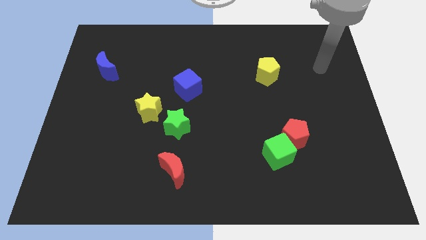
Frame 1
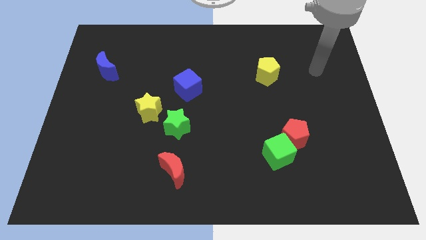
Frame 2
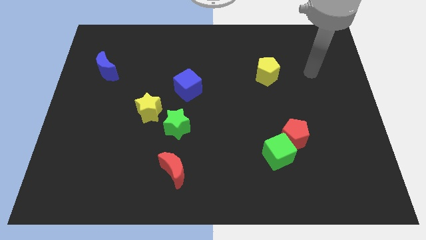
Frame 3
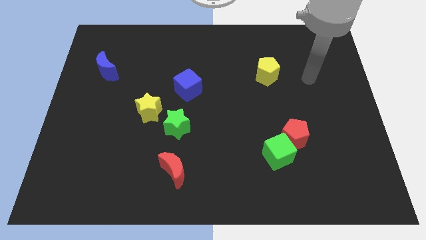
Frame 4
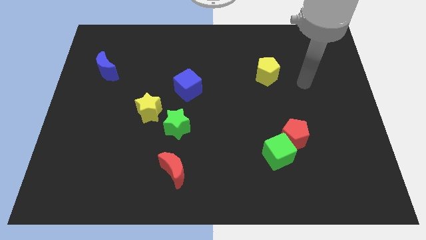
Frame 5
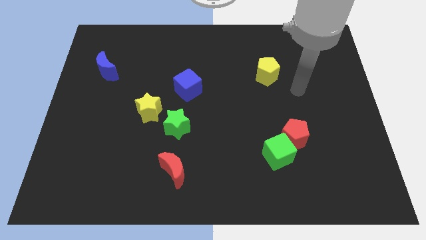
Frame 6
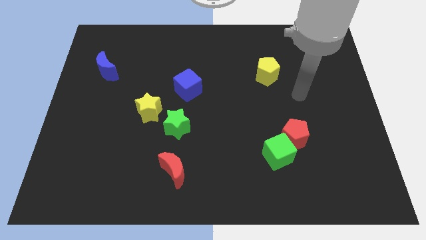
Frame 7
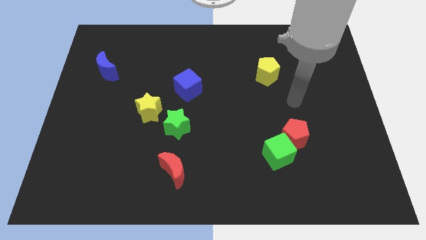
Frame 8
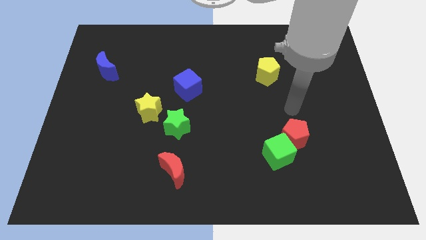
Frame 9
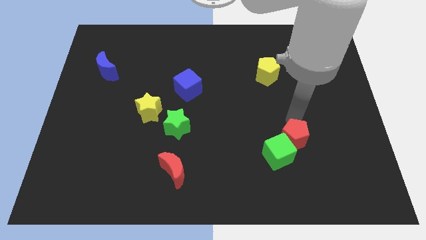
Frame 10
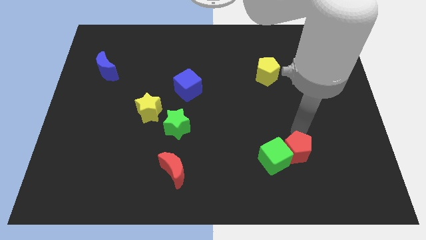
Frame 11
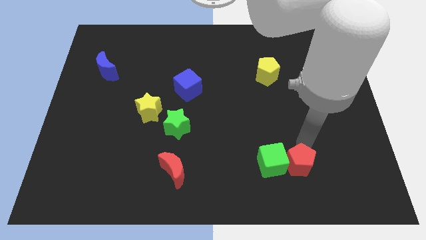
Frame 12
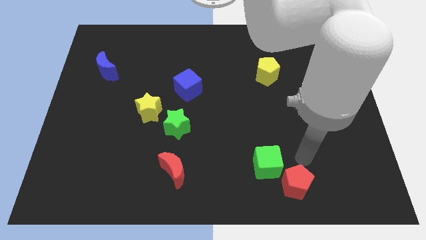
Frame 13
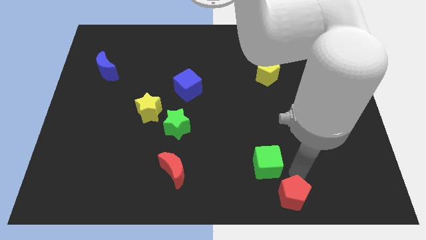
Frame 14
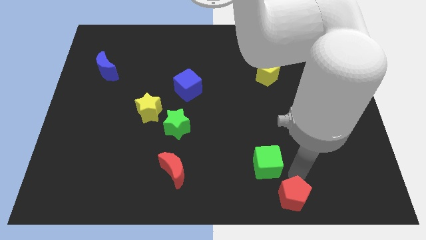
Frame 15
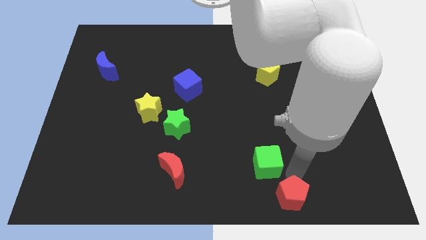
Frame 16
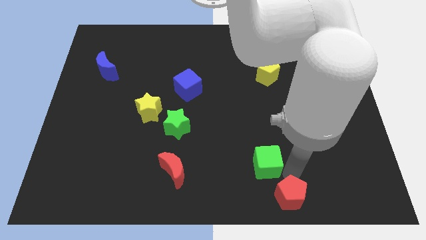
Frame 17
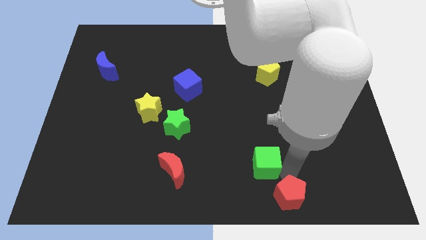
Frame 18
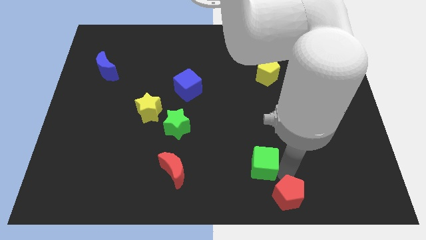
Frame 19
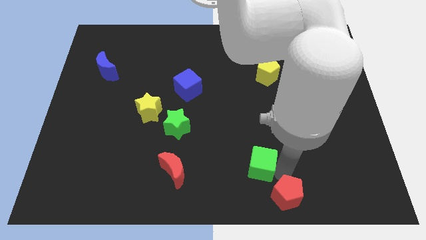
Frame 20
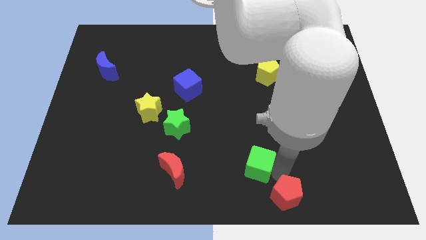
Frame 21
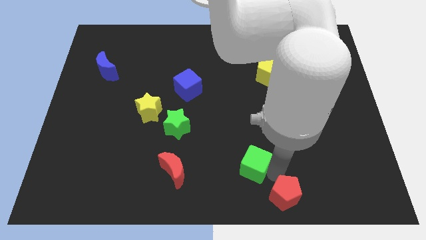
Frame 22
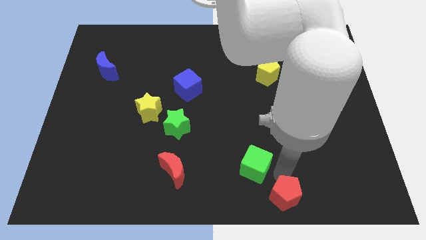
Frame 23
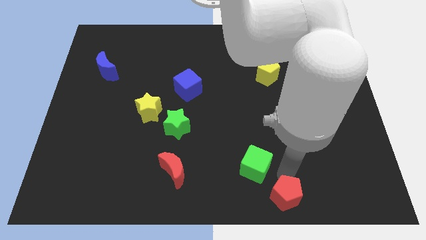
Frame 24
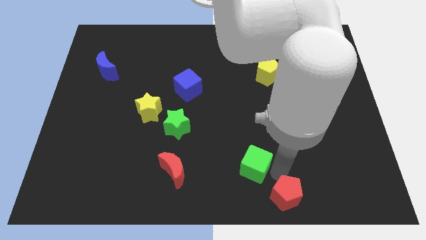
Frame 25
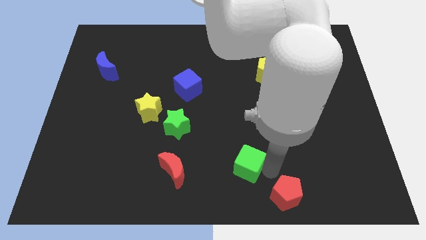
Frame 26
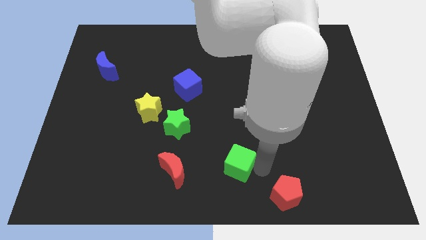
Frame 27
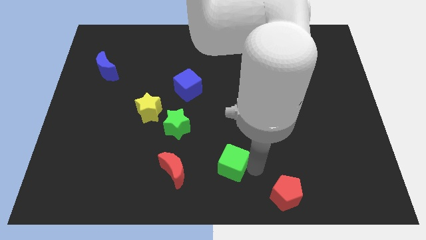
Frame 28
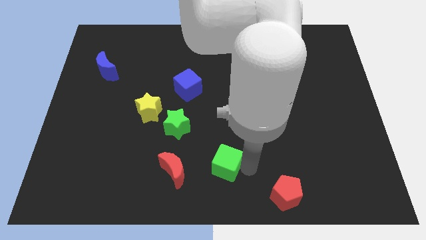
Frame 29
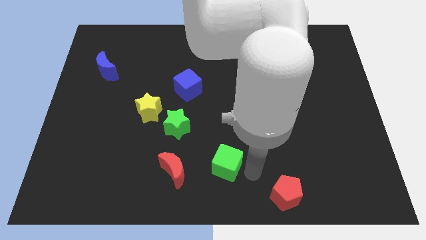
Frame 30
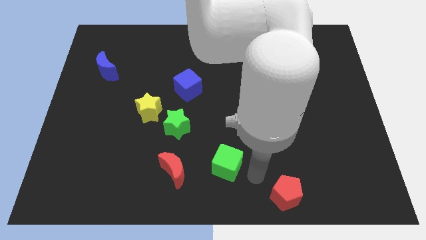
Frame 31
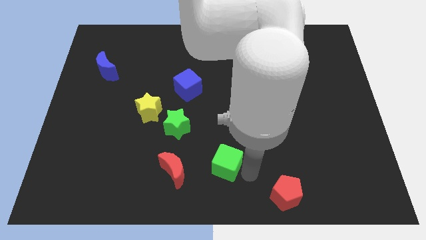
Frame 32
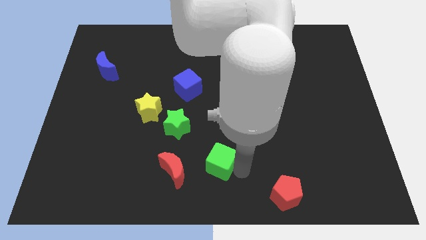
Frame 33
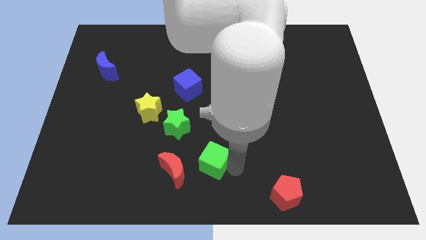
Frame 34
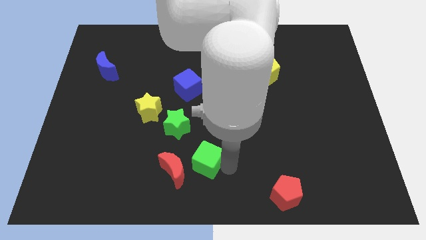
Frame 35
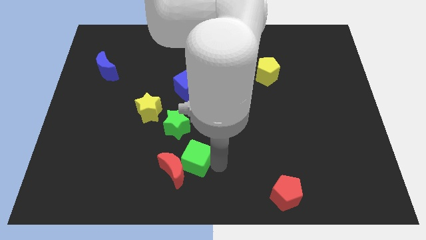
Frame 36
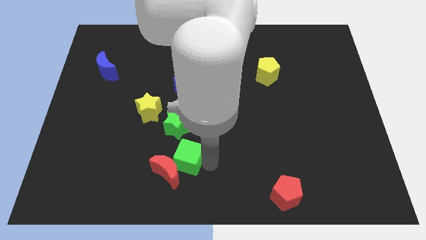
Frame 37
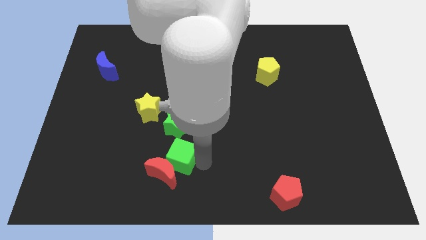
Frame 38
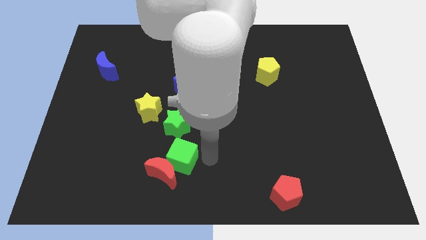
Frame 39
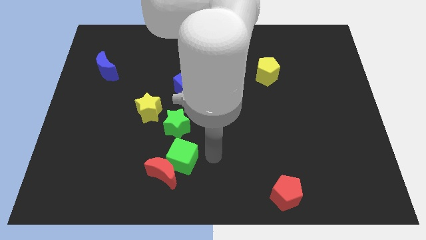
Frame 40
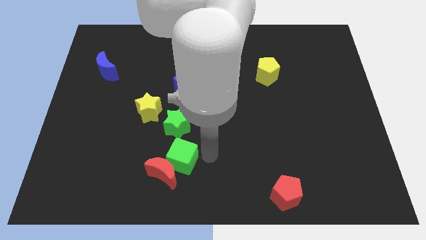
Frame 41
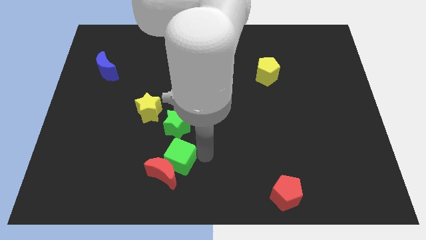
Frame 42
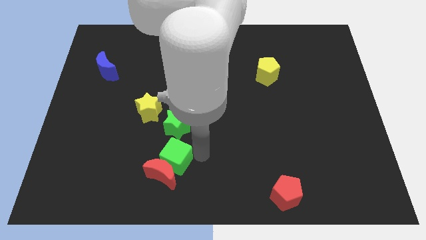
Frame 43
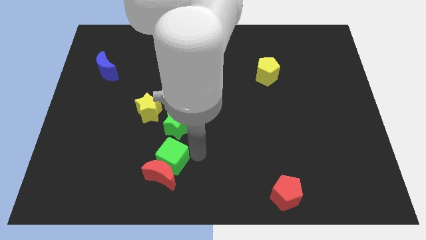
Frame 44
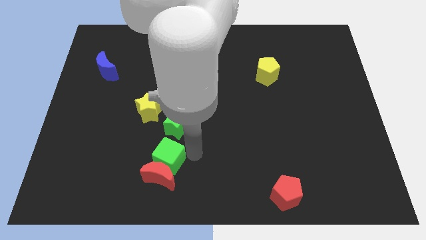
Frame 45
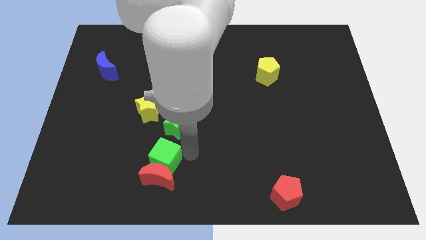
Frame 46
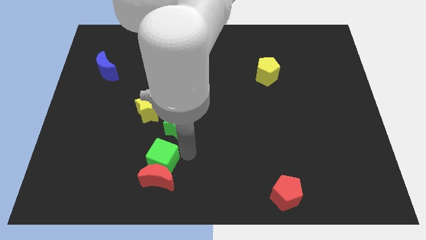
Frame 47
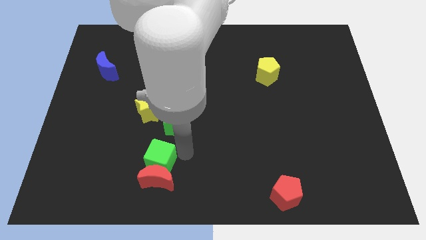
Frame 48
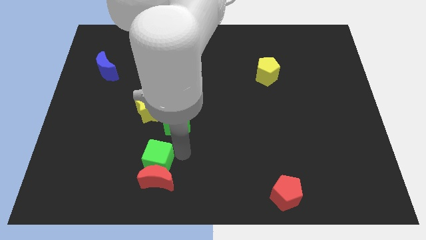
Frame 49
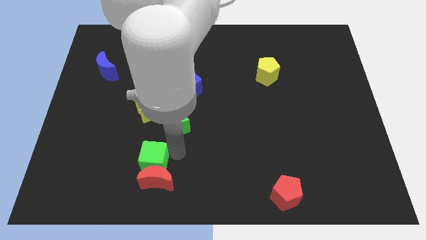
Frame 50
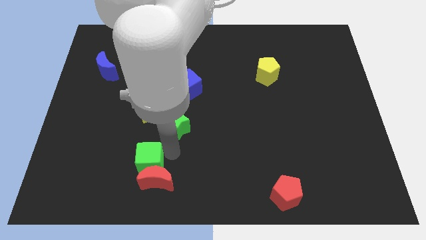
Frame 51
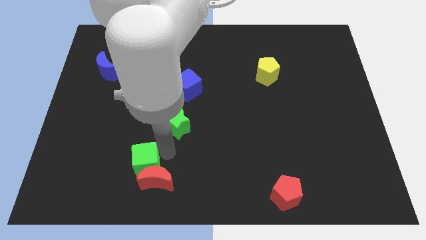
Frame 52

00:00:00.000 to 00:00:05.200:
put the green cube to the left side of the red moon

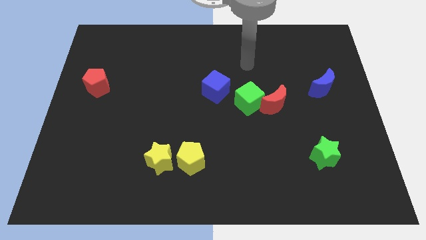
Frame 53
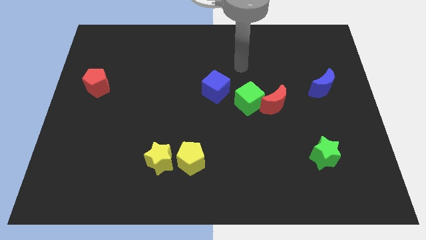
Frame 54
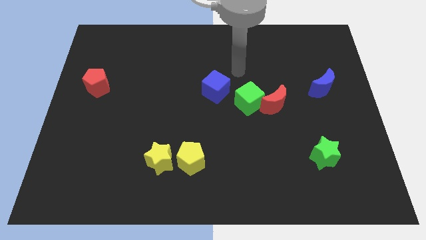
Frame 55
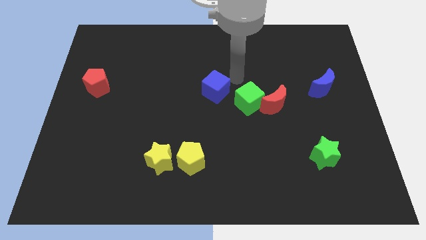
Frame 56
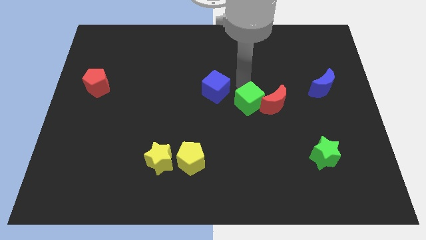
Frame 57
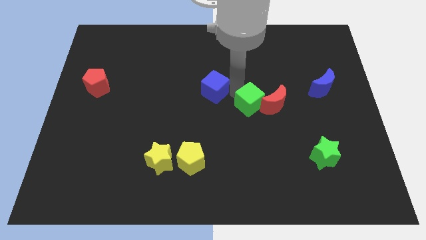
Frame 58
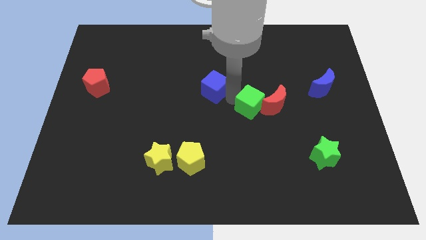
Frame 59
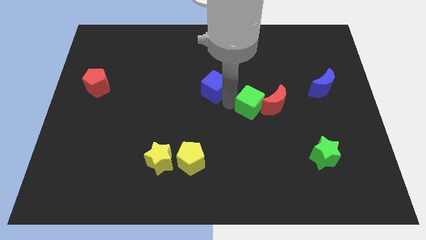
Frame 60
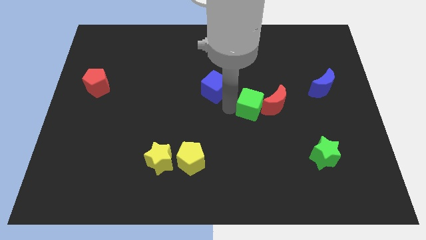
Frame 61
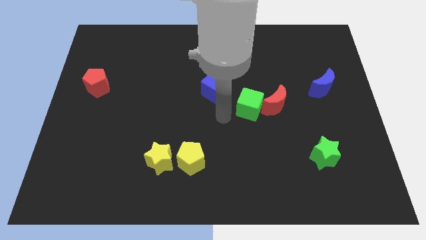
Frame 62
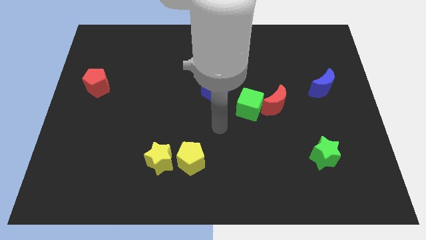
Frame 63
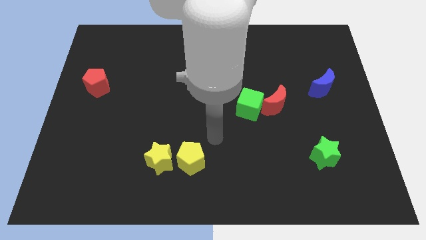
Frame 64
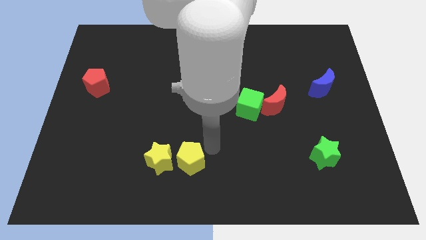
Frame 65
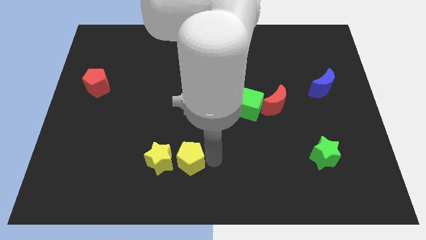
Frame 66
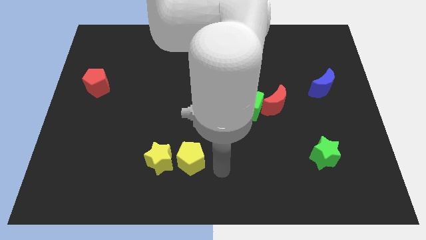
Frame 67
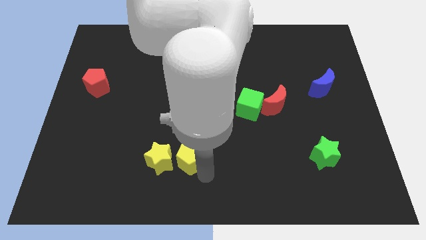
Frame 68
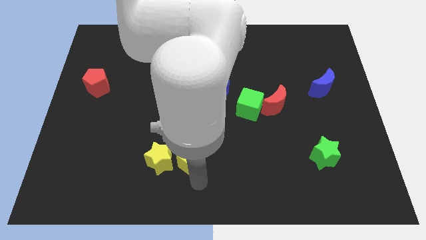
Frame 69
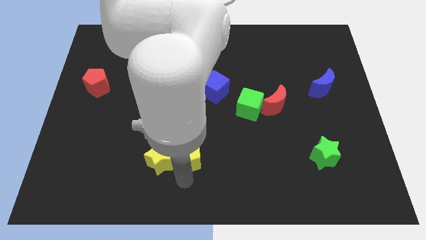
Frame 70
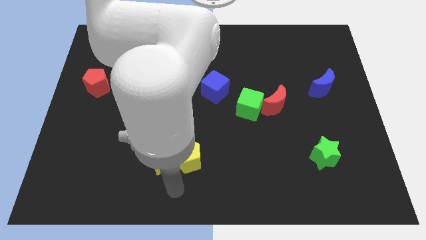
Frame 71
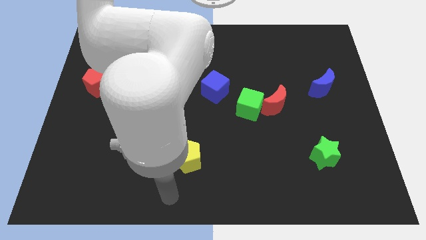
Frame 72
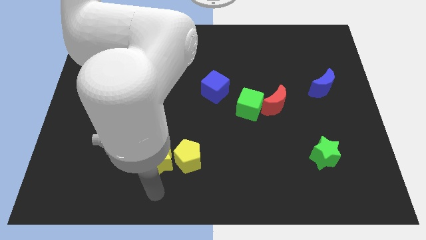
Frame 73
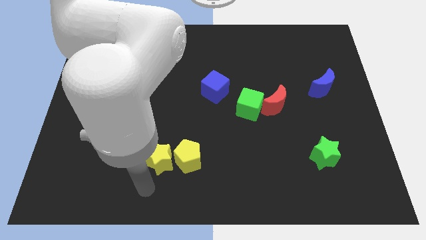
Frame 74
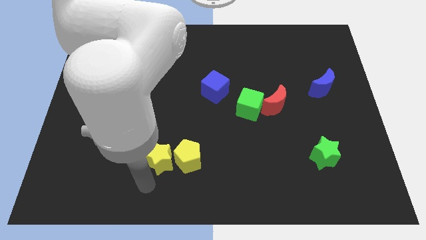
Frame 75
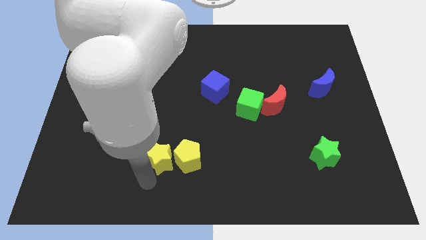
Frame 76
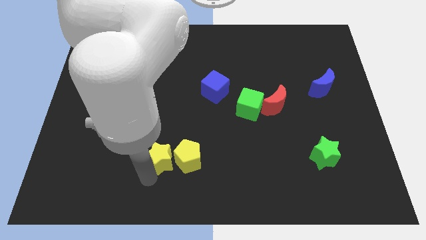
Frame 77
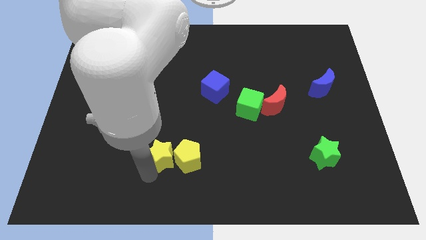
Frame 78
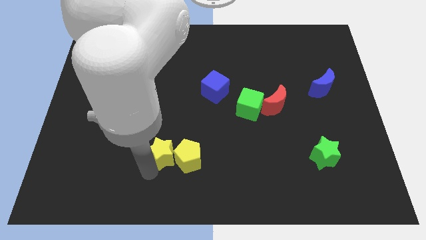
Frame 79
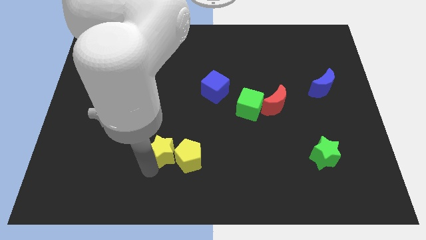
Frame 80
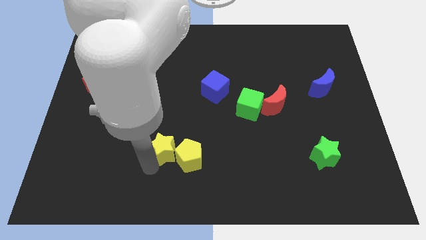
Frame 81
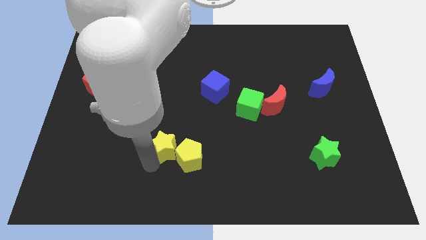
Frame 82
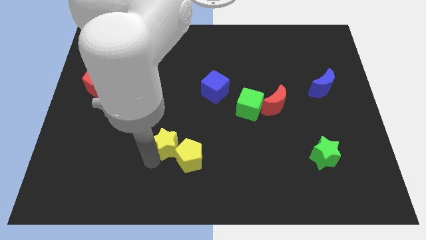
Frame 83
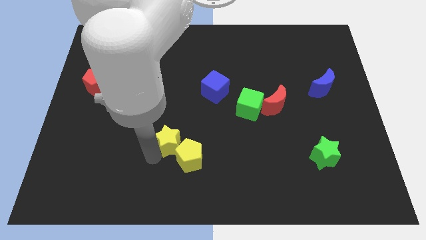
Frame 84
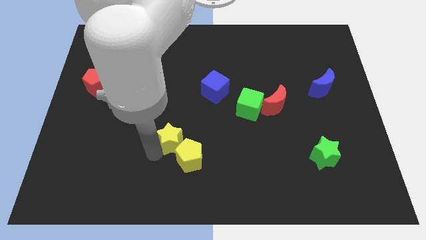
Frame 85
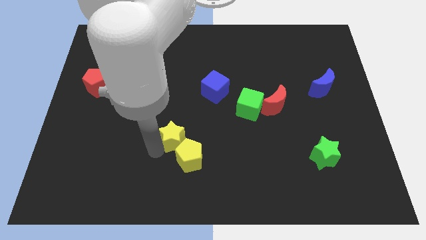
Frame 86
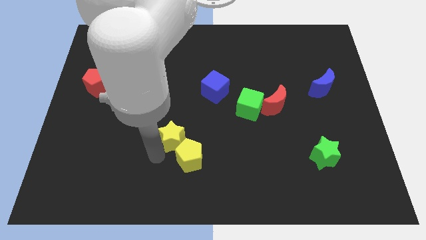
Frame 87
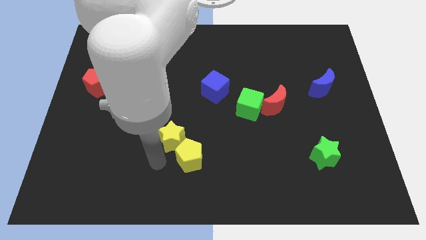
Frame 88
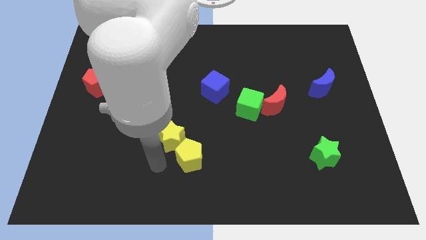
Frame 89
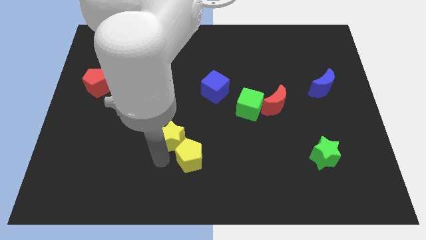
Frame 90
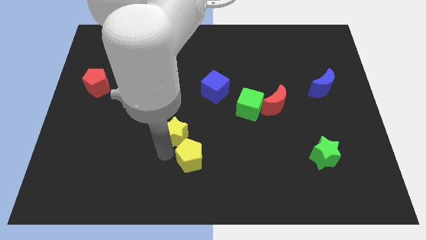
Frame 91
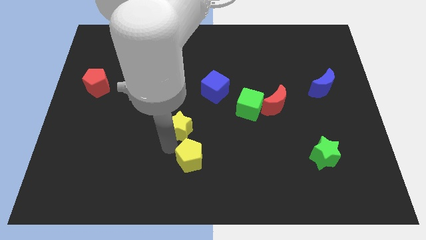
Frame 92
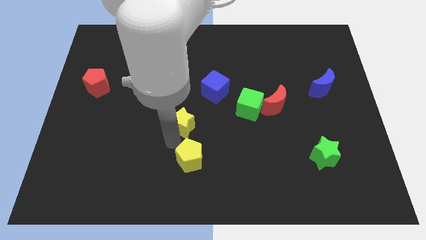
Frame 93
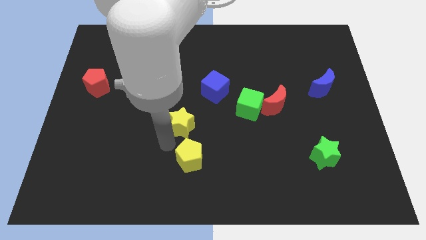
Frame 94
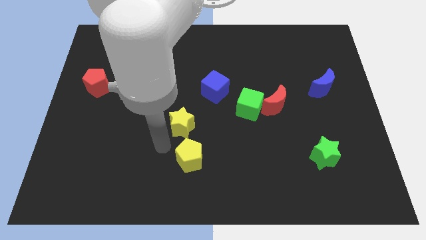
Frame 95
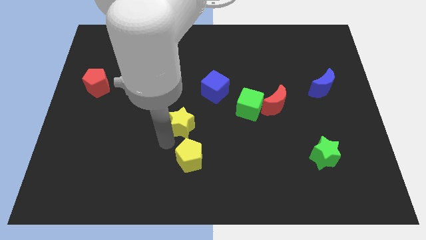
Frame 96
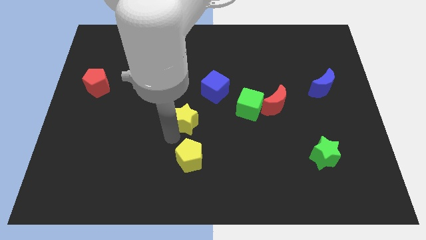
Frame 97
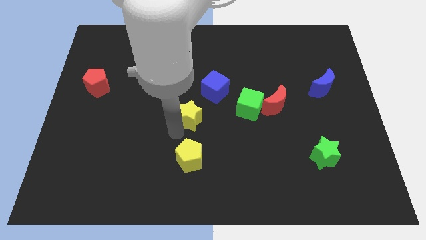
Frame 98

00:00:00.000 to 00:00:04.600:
slide the yellow star just left of the green cube
